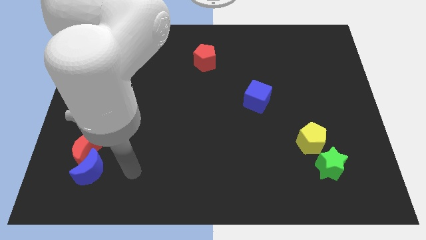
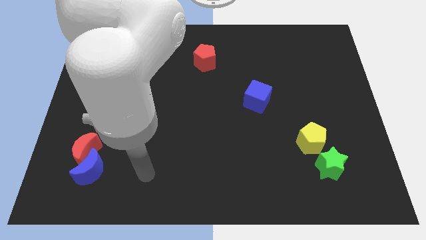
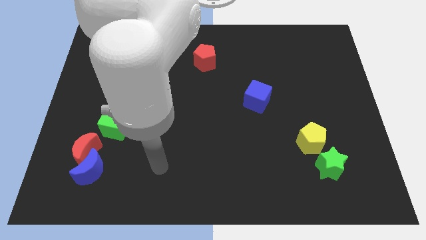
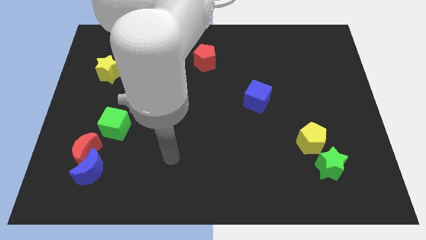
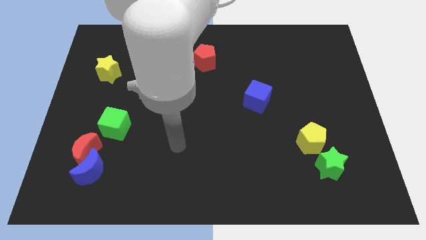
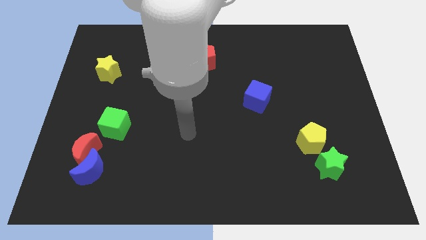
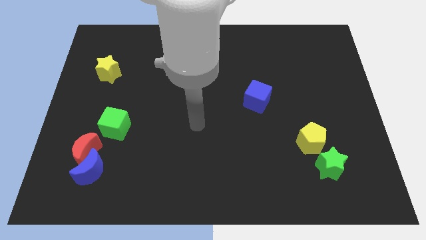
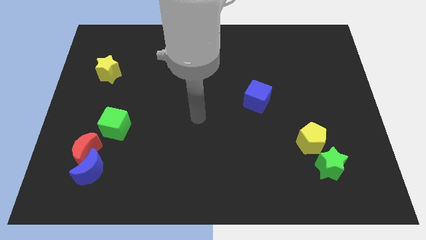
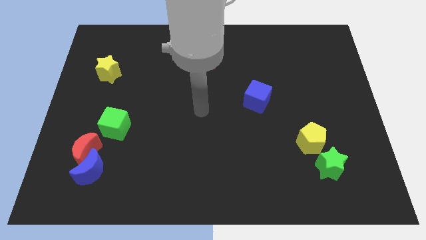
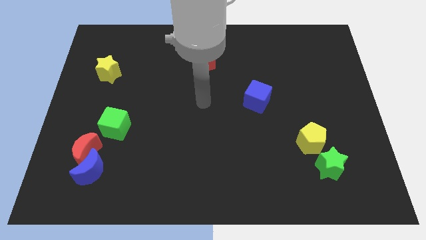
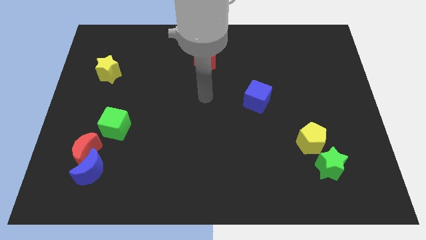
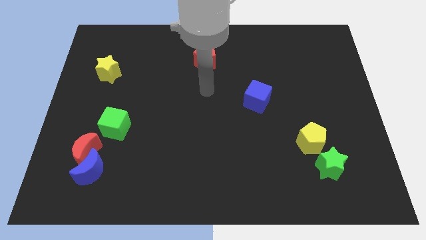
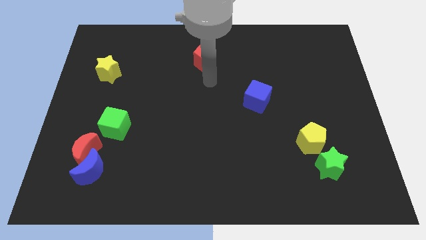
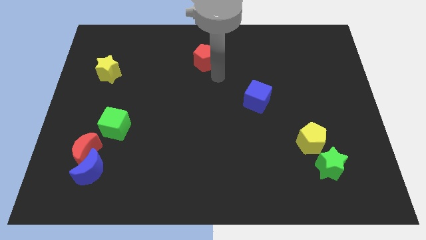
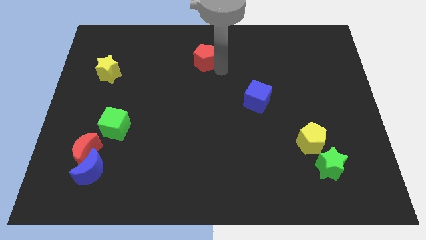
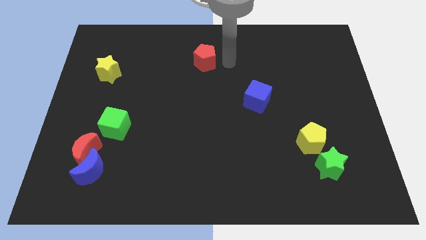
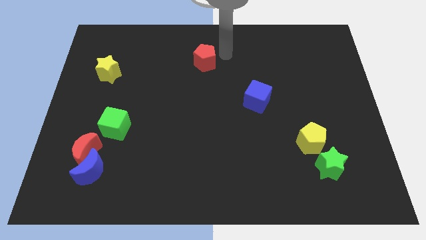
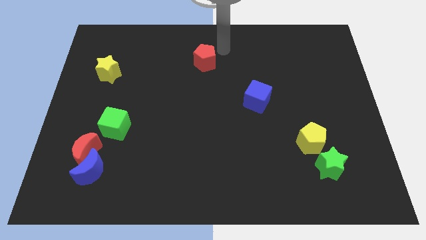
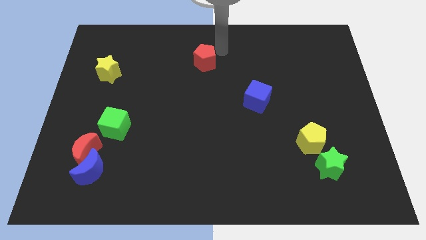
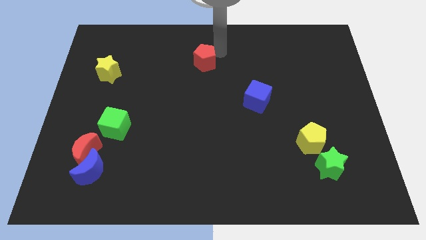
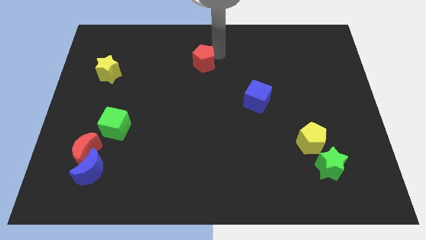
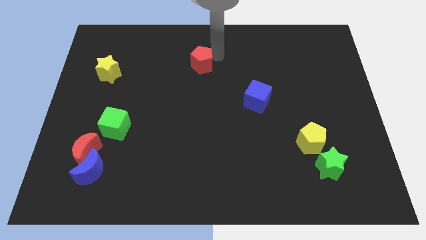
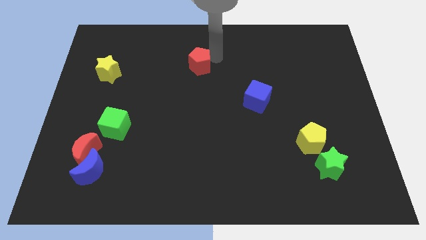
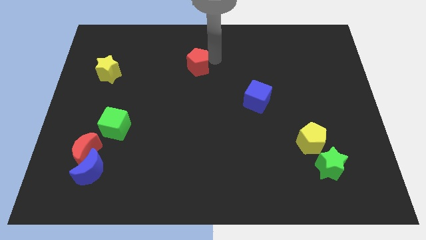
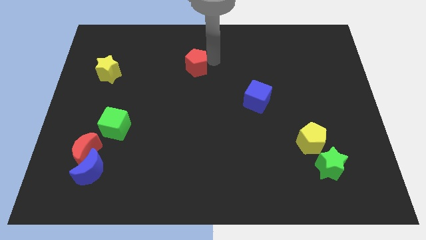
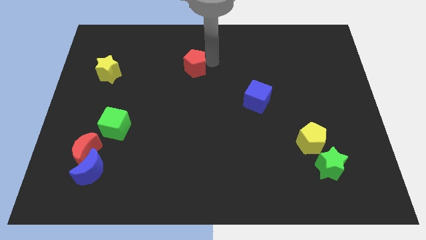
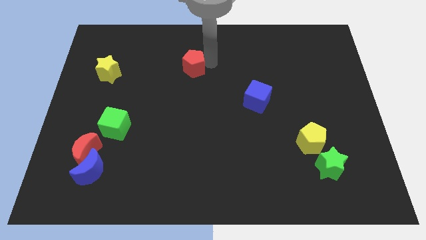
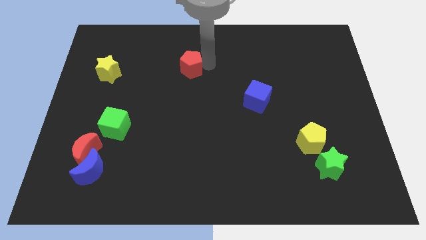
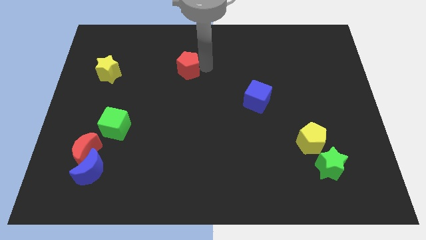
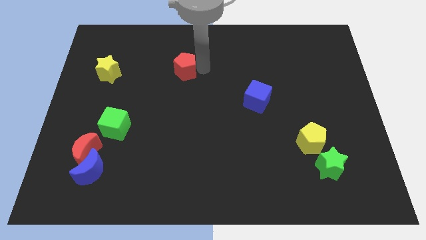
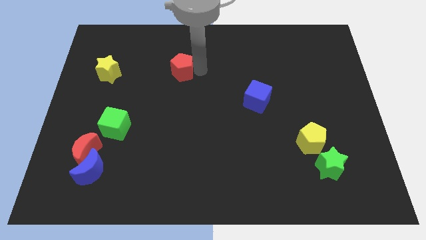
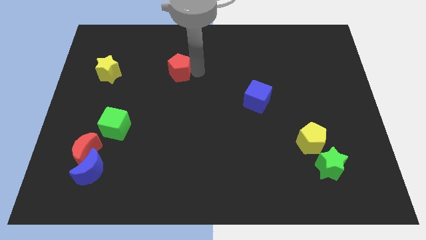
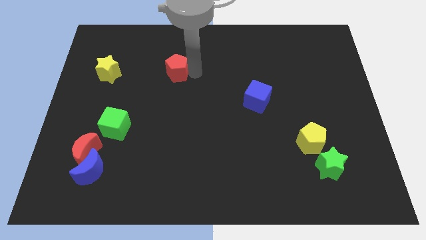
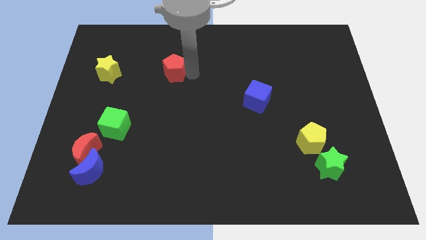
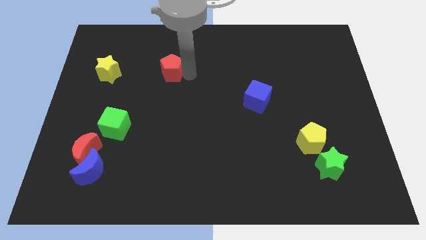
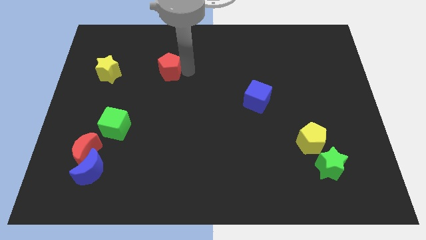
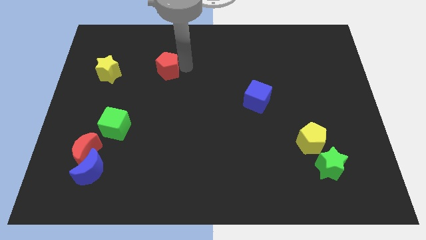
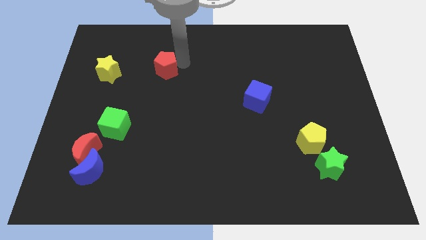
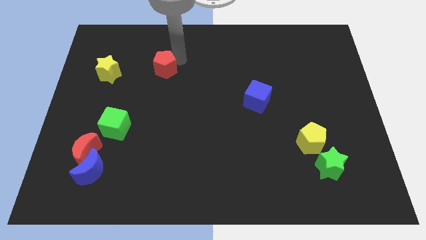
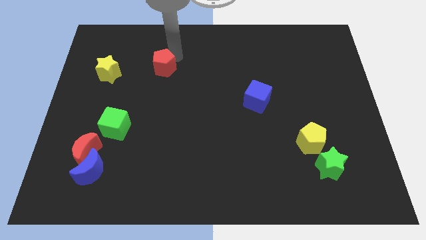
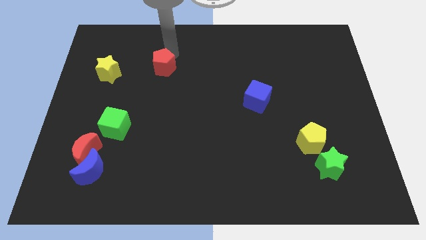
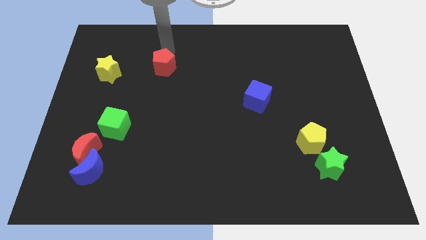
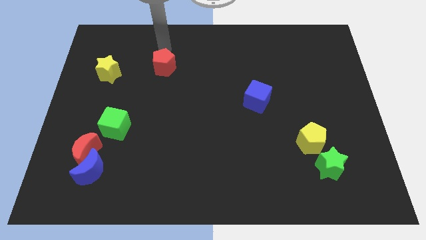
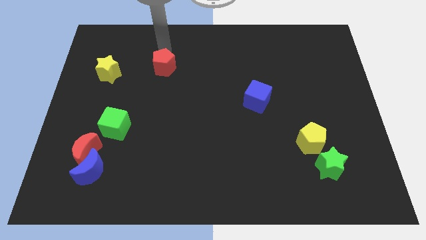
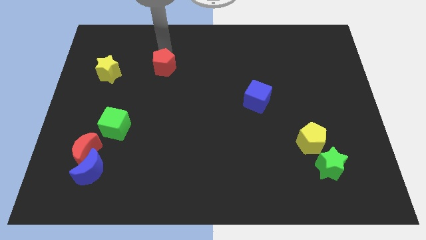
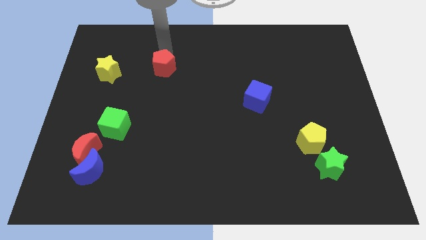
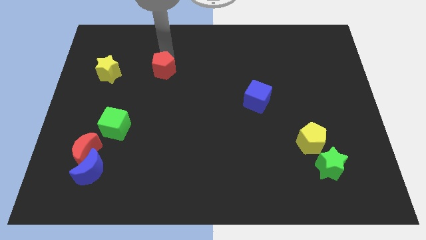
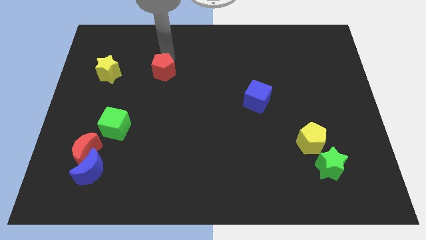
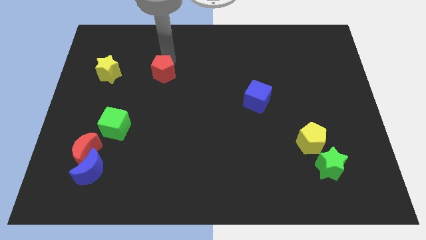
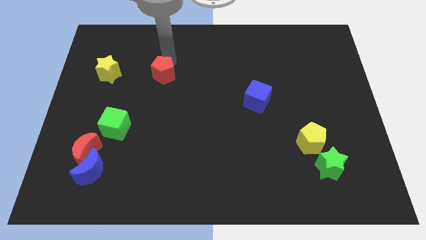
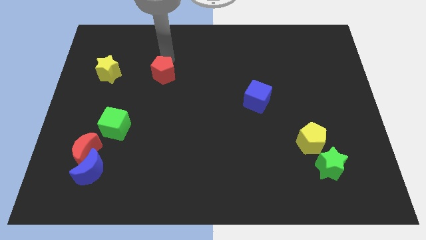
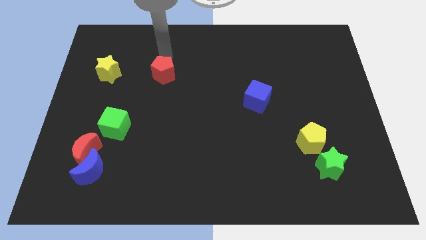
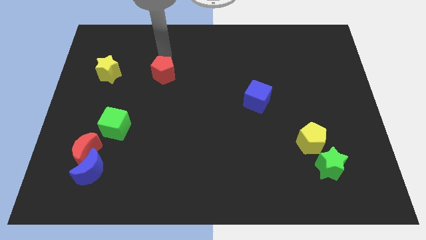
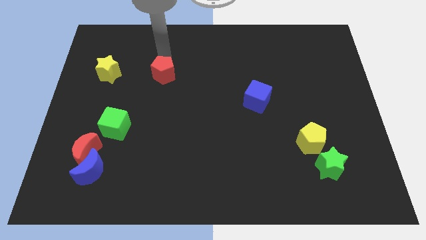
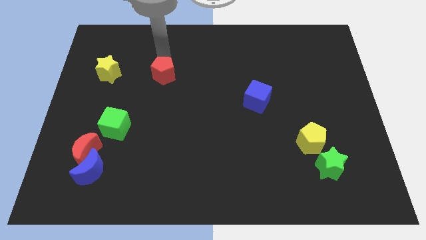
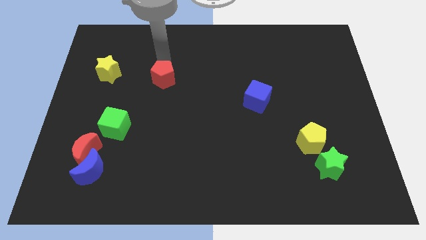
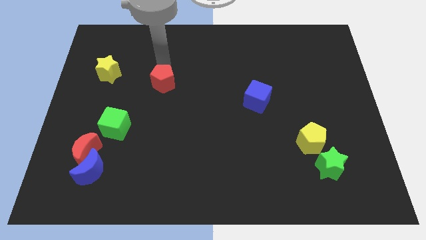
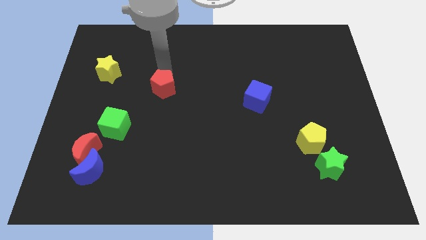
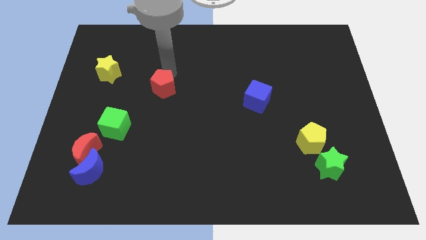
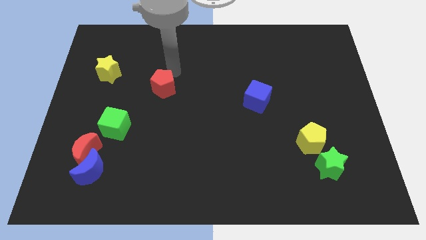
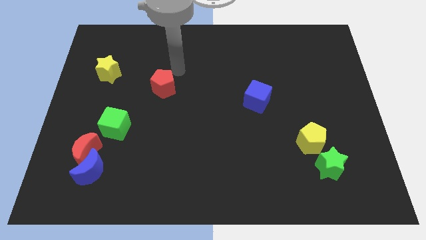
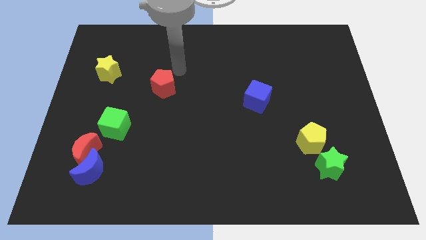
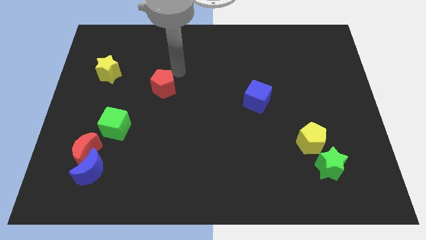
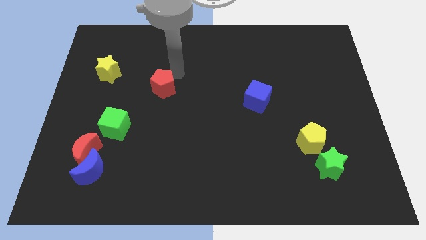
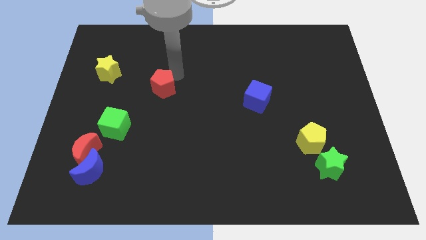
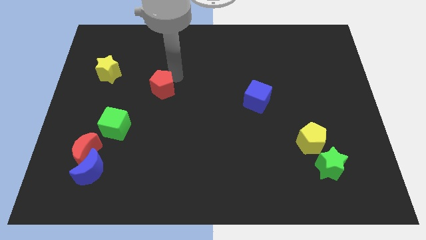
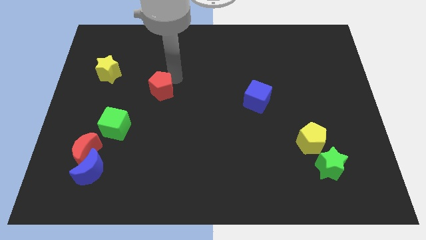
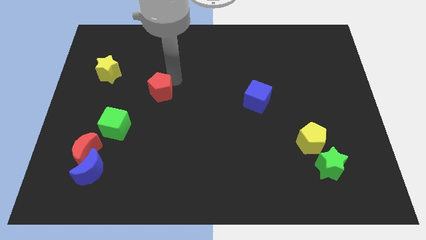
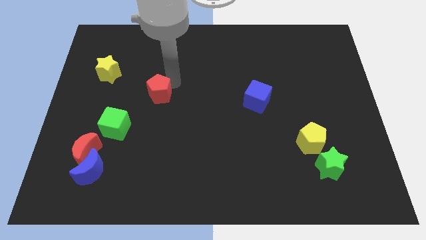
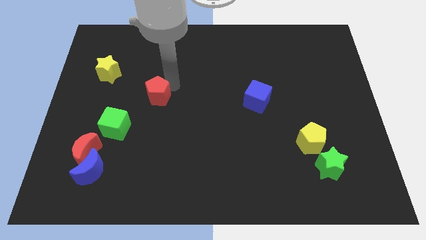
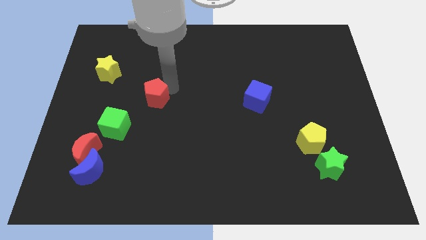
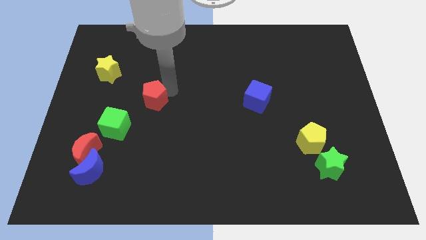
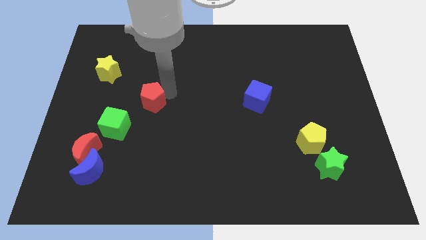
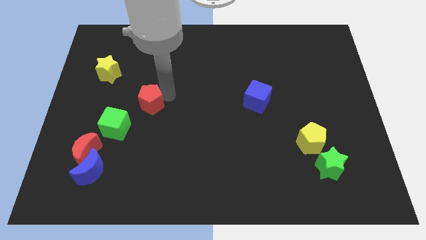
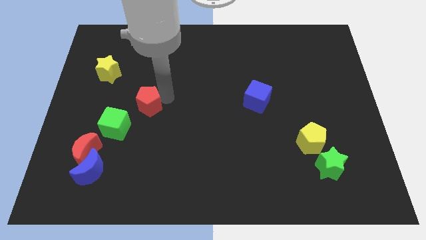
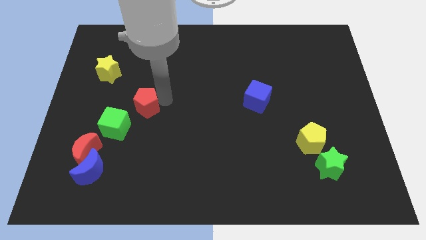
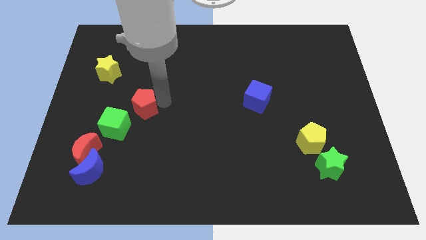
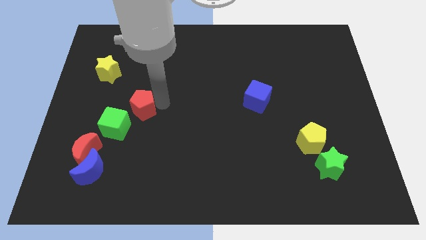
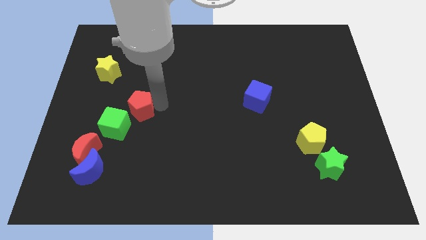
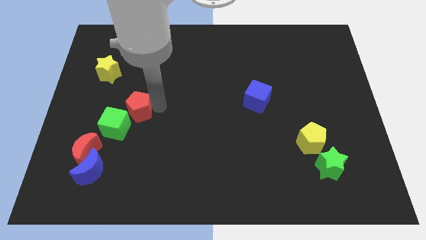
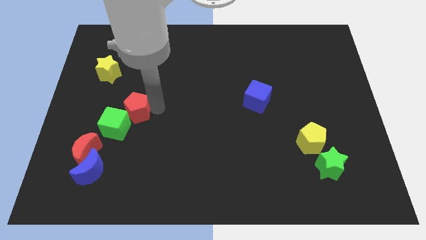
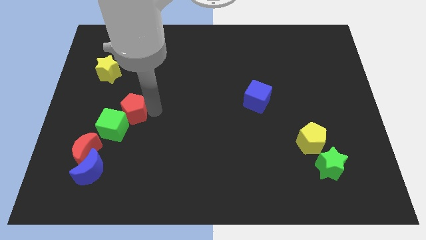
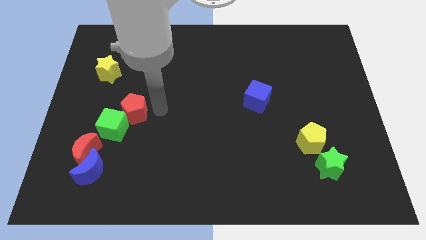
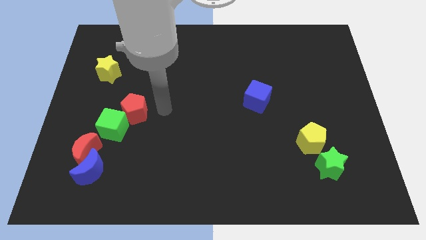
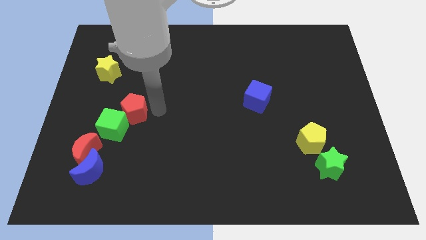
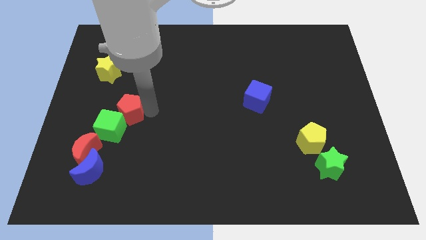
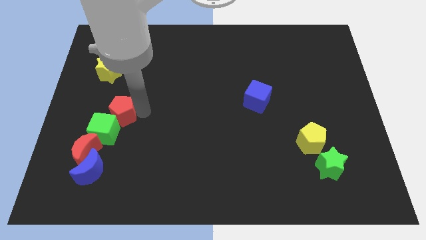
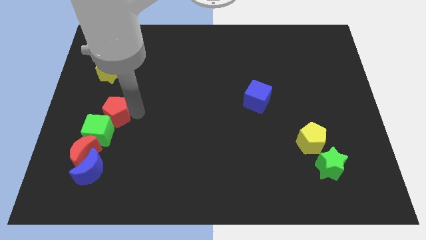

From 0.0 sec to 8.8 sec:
slide the red pentagon to the top of the blue moon
